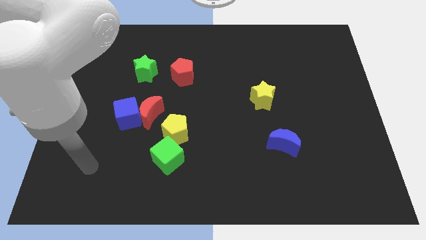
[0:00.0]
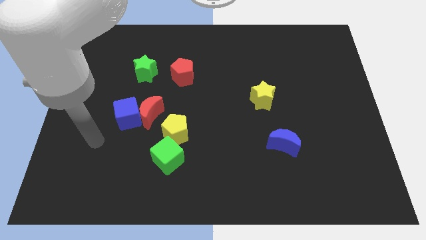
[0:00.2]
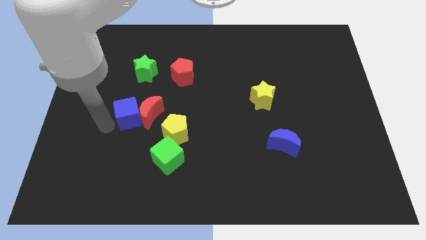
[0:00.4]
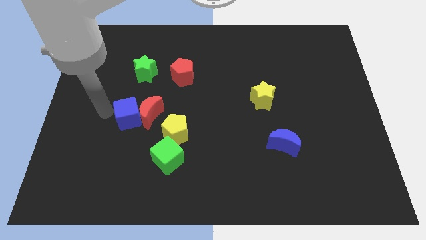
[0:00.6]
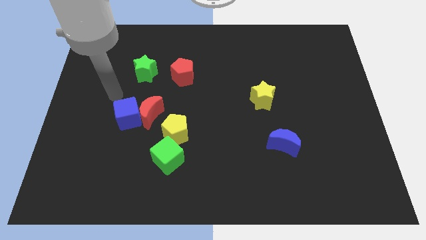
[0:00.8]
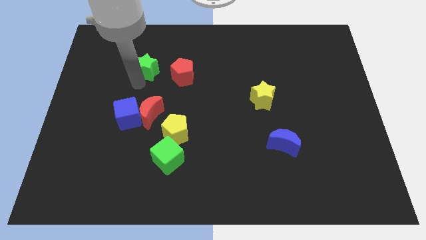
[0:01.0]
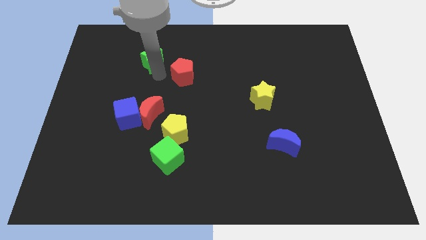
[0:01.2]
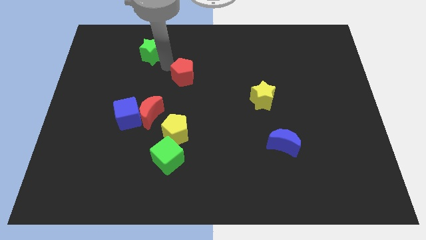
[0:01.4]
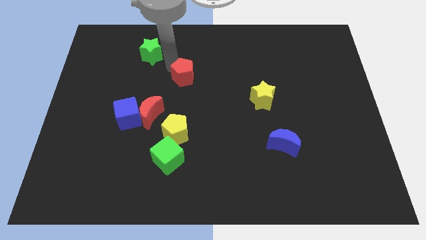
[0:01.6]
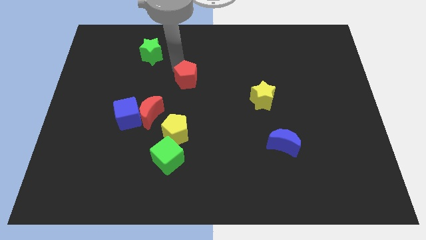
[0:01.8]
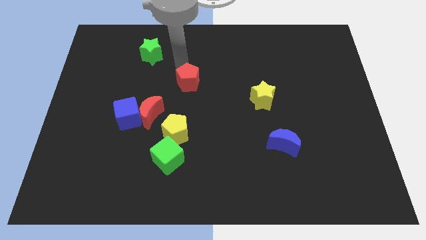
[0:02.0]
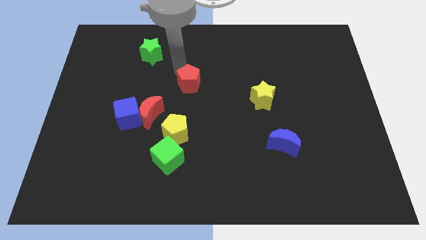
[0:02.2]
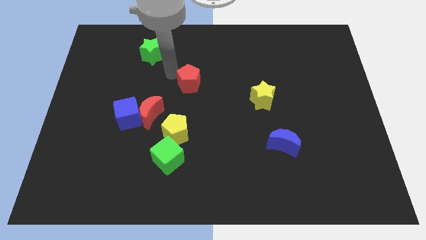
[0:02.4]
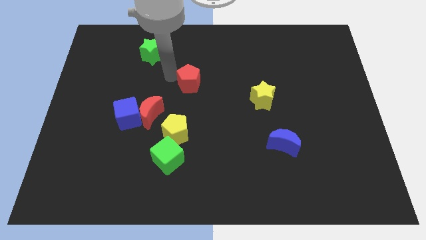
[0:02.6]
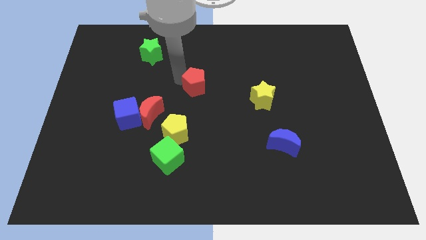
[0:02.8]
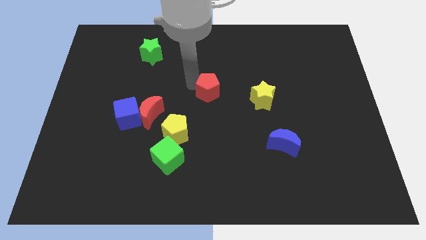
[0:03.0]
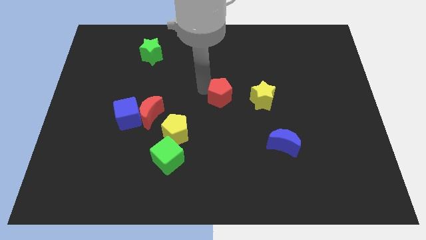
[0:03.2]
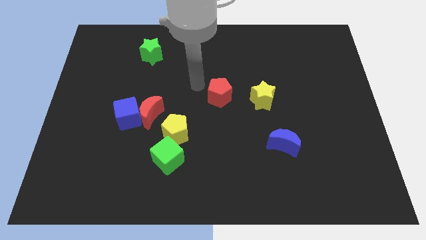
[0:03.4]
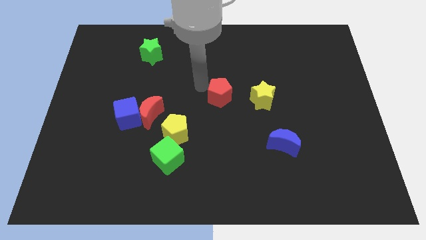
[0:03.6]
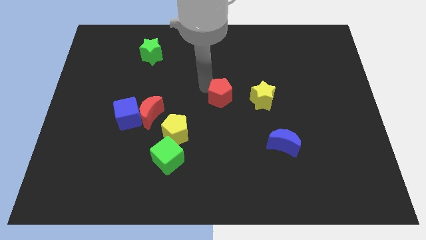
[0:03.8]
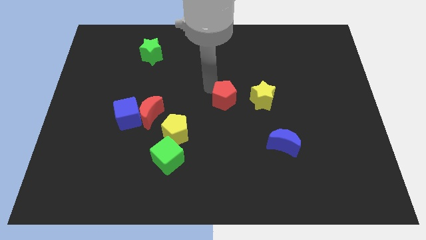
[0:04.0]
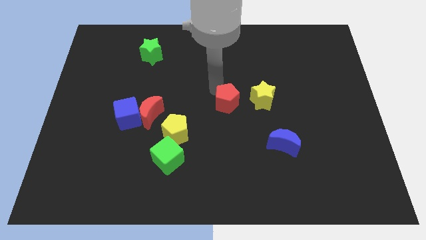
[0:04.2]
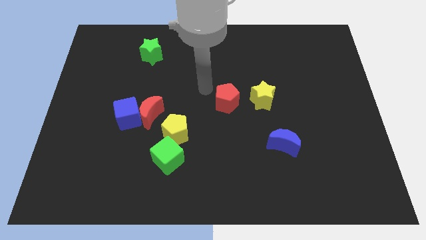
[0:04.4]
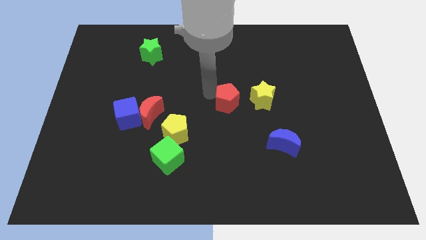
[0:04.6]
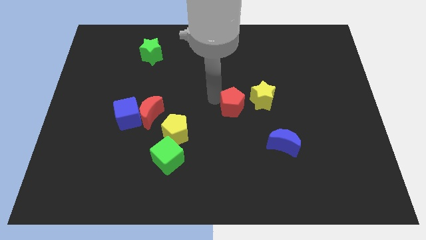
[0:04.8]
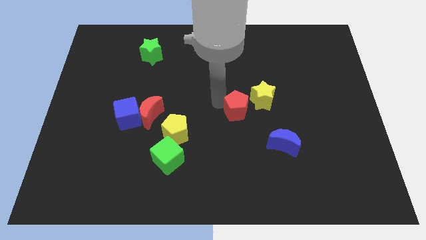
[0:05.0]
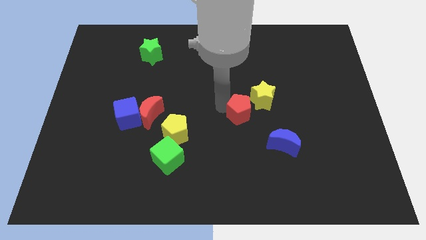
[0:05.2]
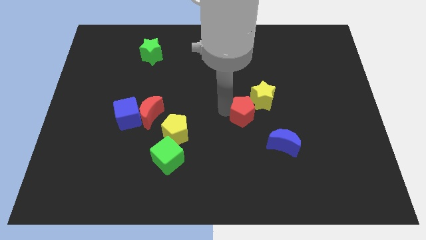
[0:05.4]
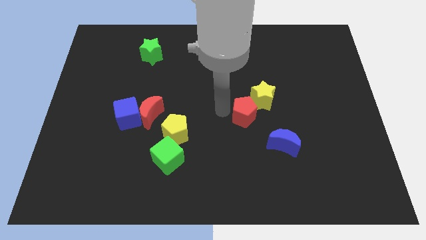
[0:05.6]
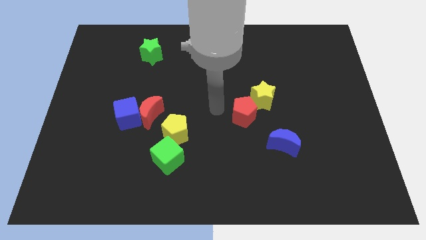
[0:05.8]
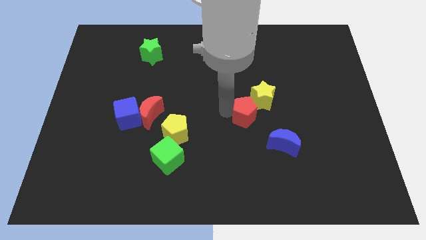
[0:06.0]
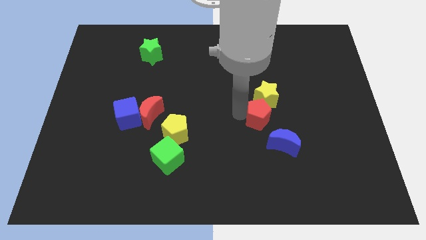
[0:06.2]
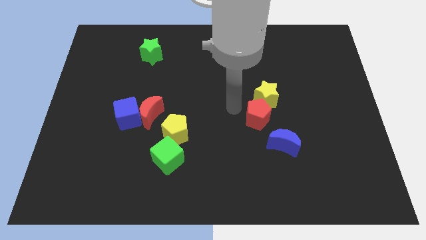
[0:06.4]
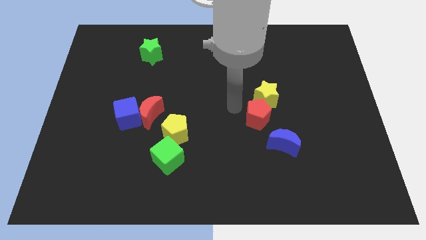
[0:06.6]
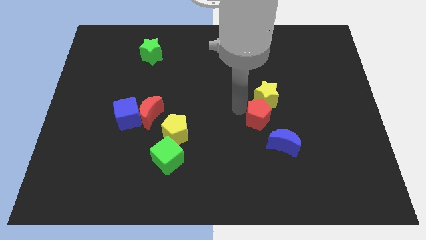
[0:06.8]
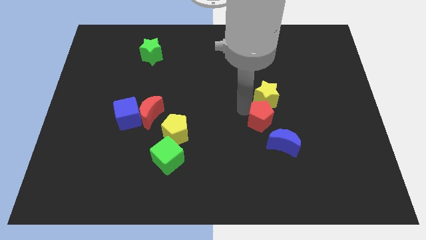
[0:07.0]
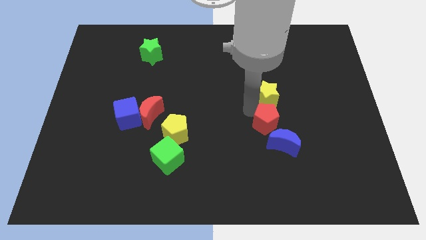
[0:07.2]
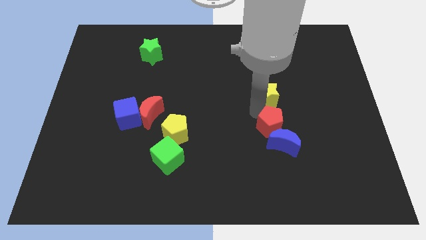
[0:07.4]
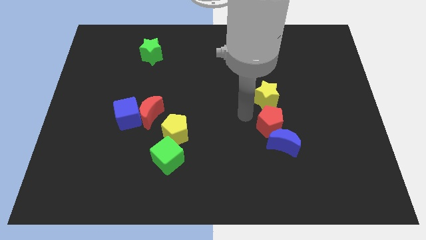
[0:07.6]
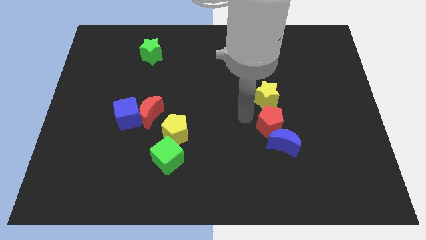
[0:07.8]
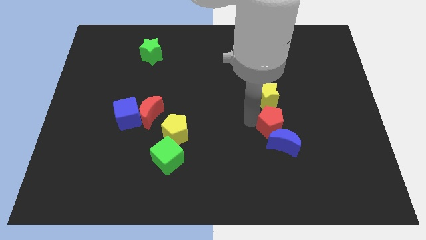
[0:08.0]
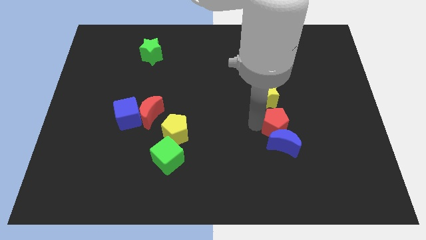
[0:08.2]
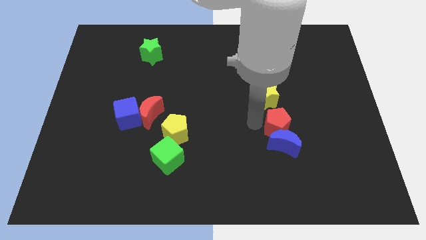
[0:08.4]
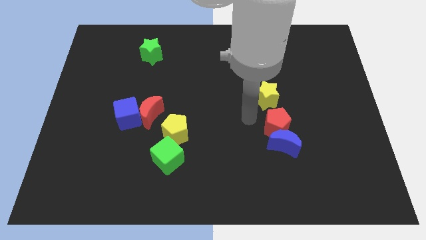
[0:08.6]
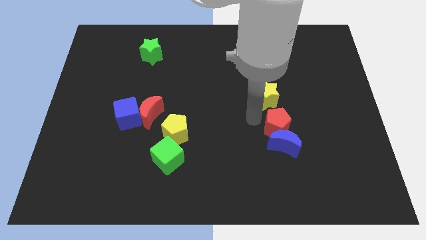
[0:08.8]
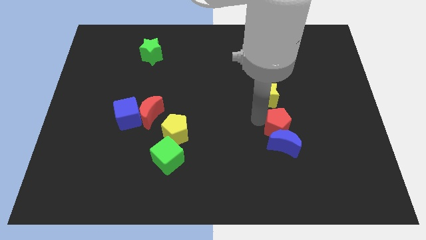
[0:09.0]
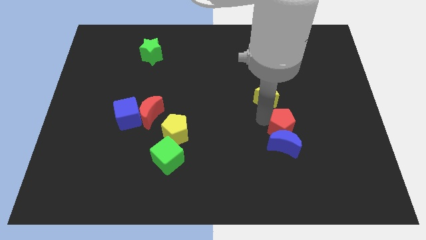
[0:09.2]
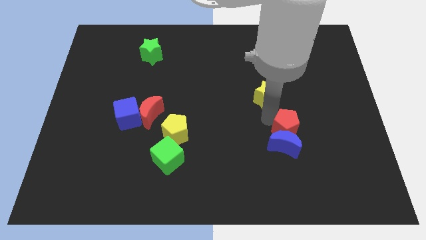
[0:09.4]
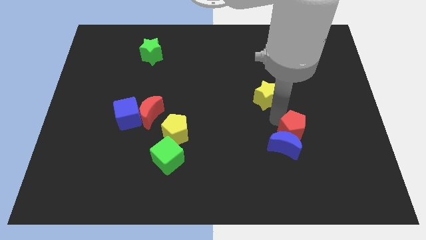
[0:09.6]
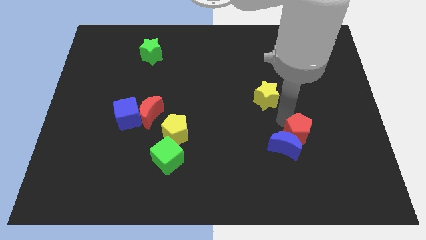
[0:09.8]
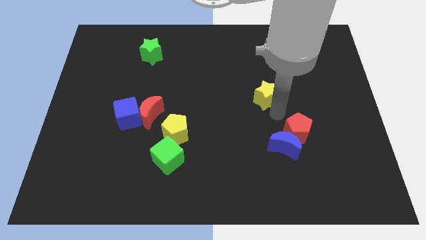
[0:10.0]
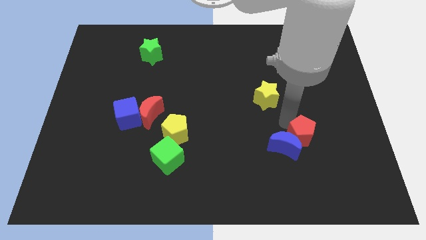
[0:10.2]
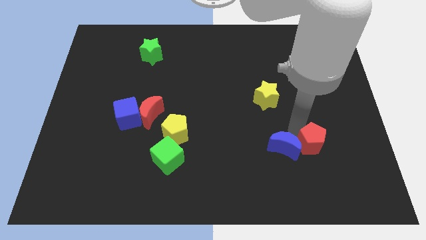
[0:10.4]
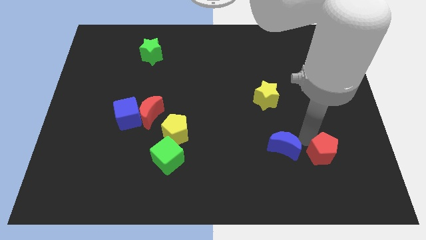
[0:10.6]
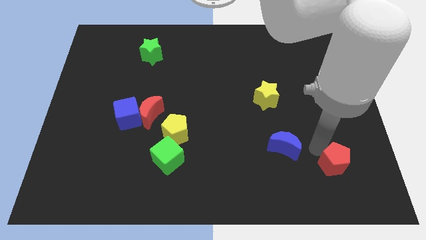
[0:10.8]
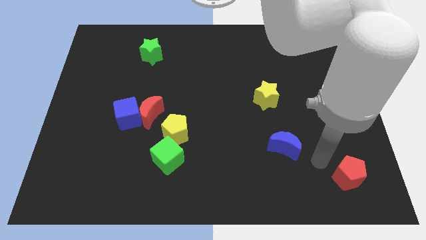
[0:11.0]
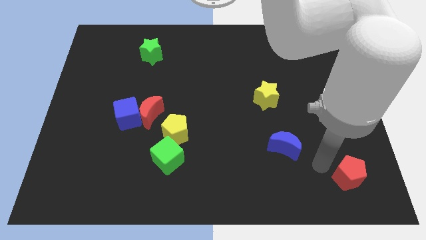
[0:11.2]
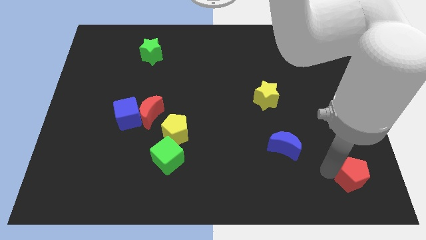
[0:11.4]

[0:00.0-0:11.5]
move the red pentagon to the lower right corner
